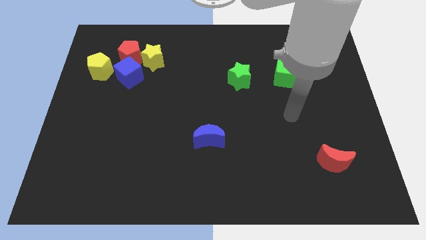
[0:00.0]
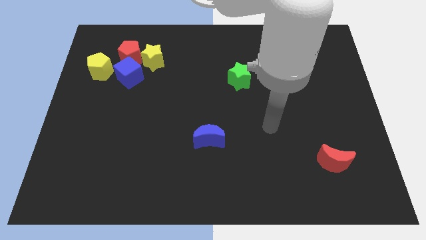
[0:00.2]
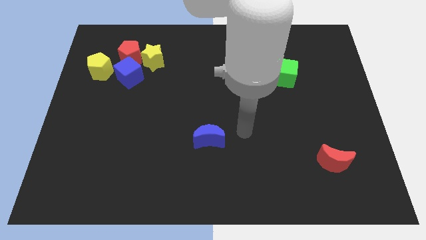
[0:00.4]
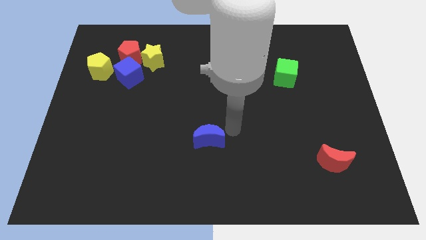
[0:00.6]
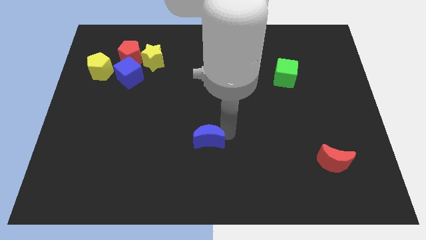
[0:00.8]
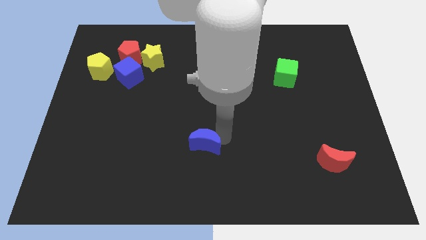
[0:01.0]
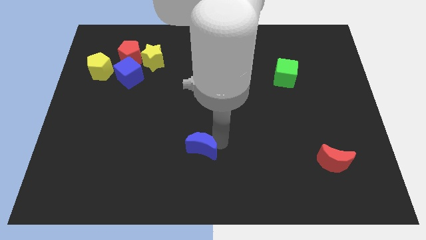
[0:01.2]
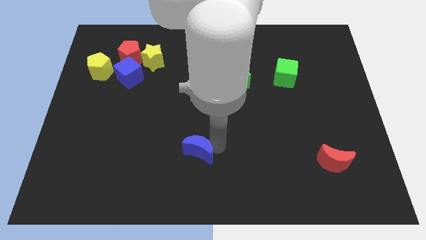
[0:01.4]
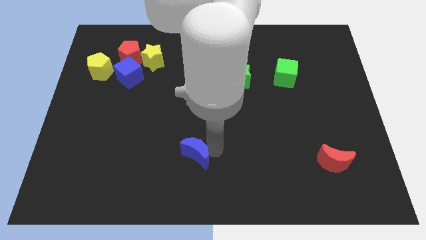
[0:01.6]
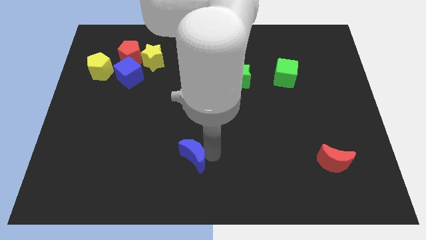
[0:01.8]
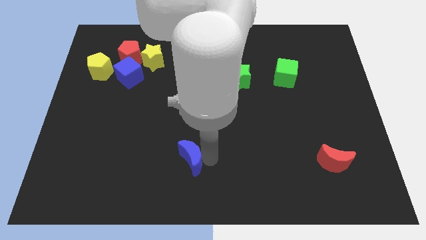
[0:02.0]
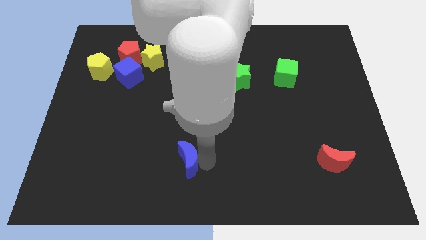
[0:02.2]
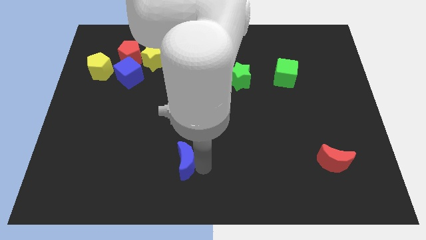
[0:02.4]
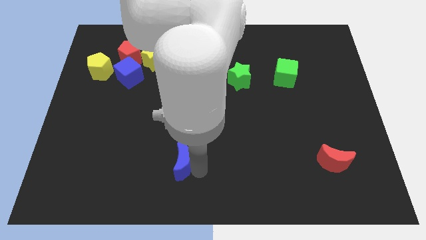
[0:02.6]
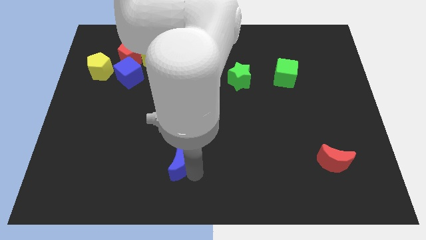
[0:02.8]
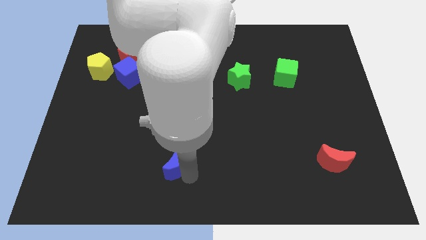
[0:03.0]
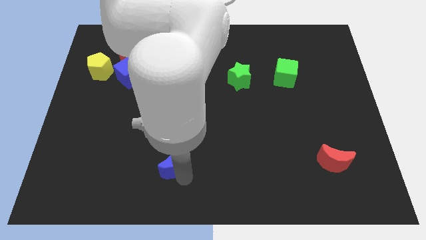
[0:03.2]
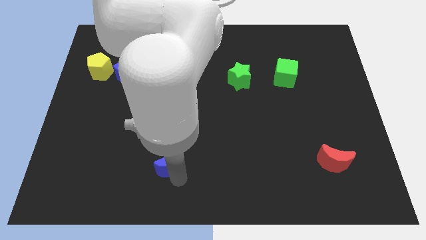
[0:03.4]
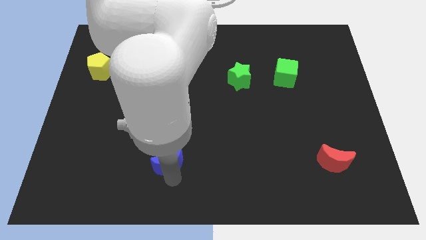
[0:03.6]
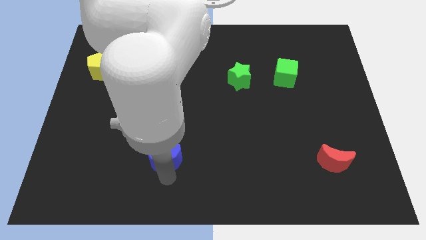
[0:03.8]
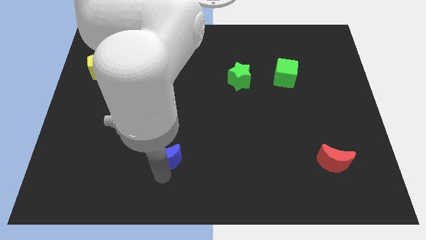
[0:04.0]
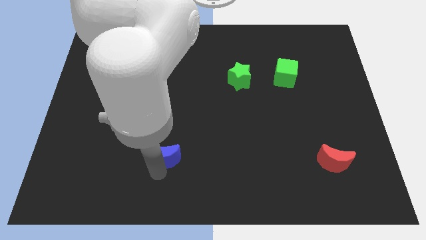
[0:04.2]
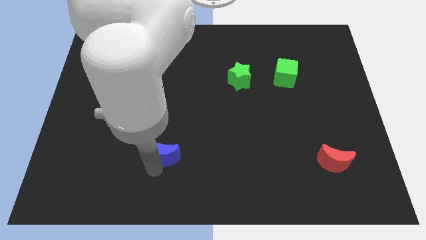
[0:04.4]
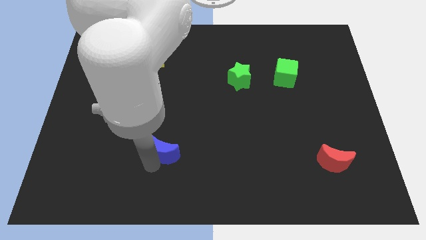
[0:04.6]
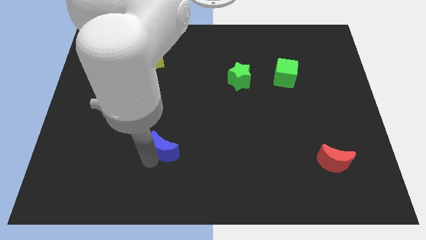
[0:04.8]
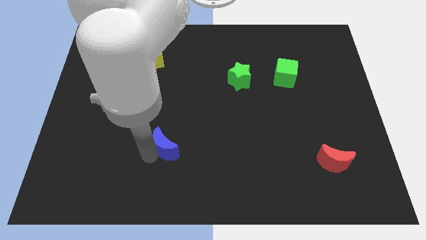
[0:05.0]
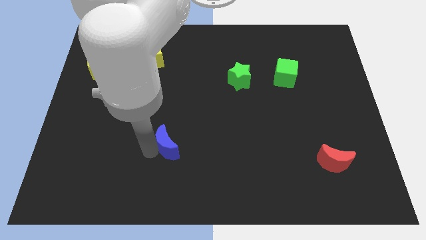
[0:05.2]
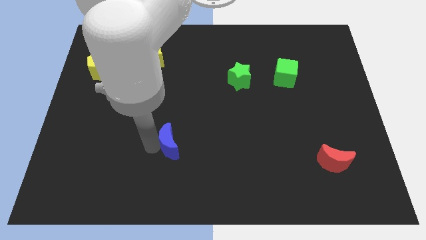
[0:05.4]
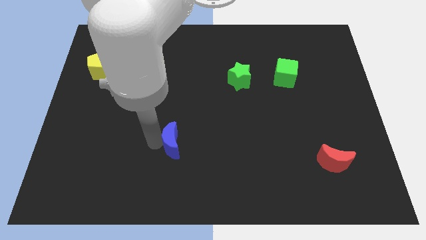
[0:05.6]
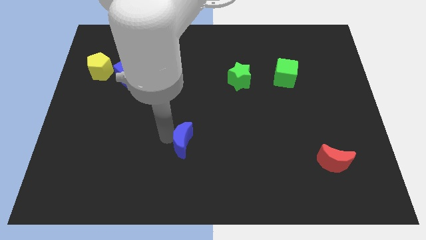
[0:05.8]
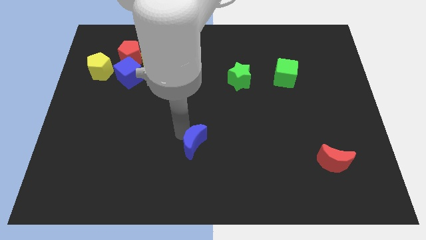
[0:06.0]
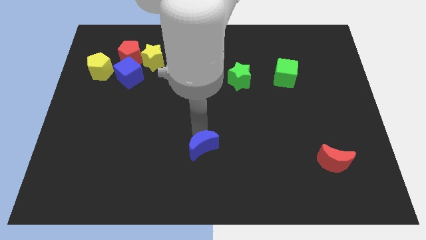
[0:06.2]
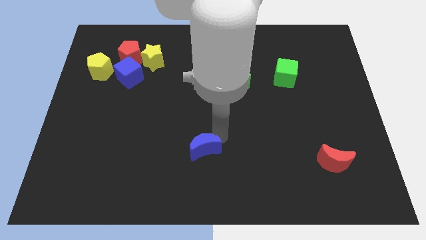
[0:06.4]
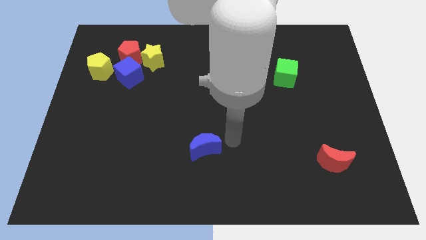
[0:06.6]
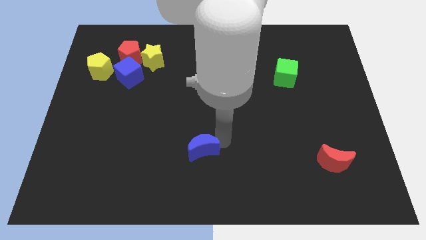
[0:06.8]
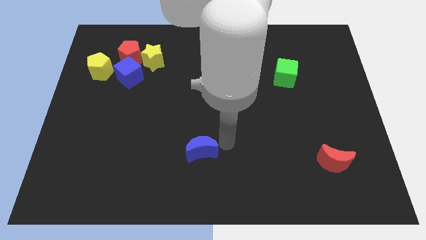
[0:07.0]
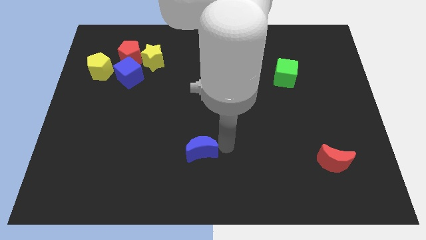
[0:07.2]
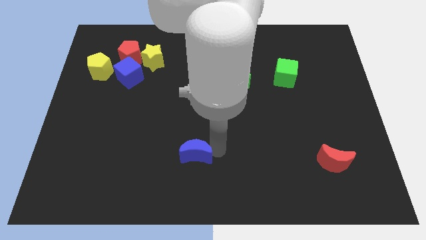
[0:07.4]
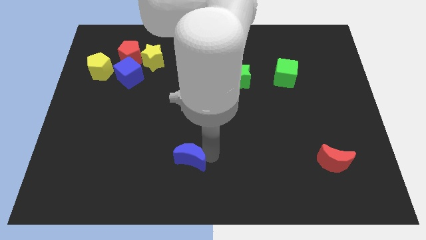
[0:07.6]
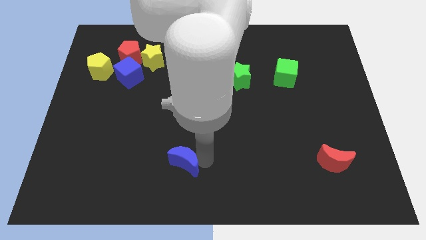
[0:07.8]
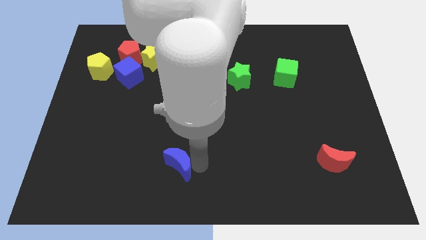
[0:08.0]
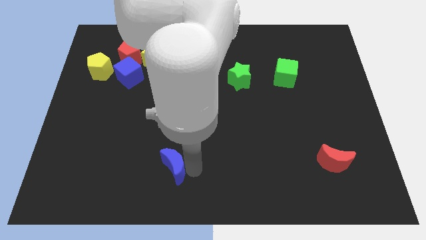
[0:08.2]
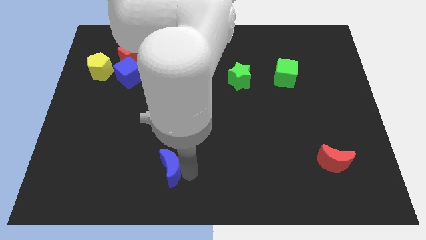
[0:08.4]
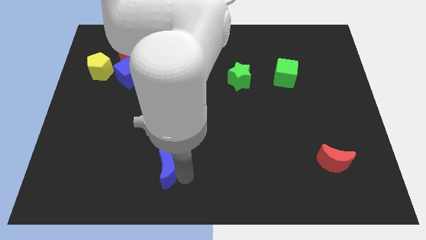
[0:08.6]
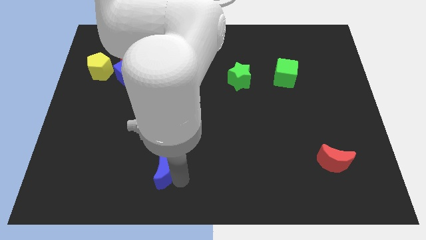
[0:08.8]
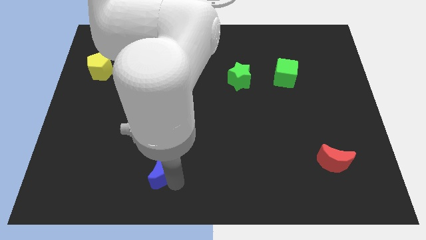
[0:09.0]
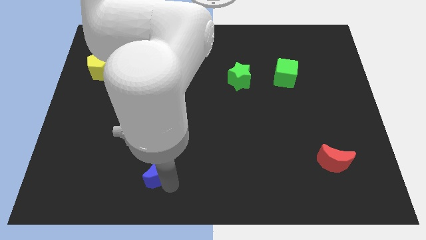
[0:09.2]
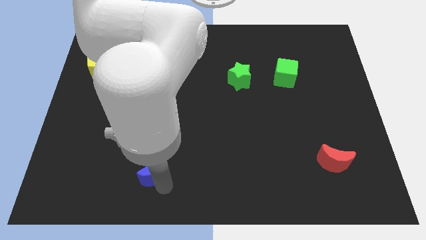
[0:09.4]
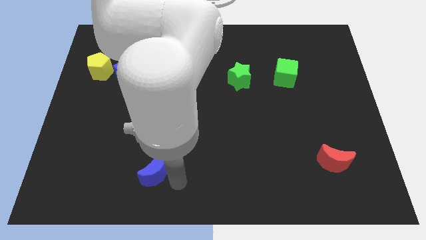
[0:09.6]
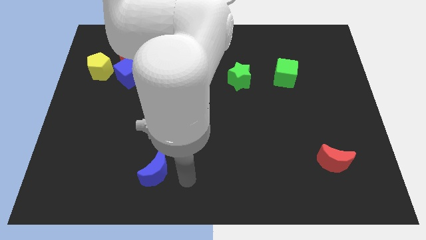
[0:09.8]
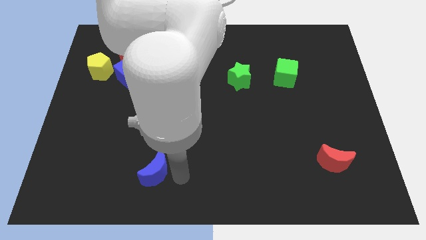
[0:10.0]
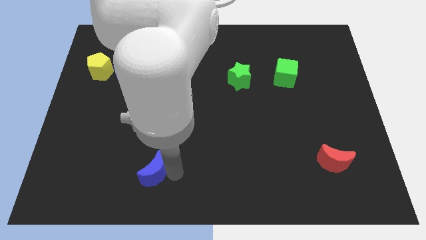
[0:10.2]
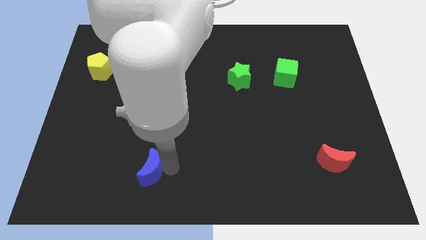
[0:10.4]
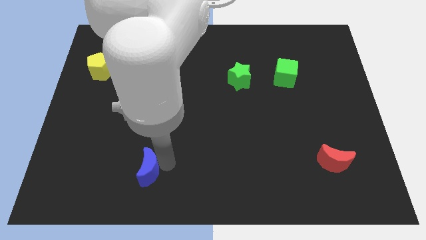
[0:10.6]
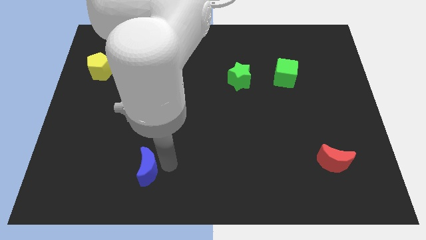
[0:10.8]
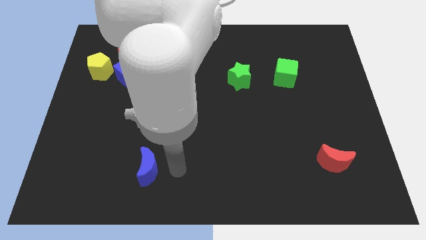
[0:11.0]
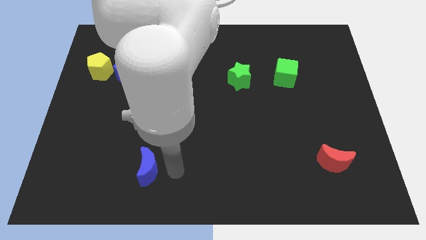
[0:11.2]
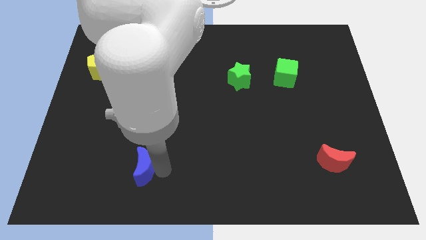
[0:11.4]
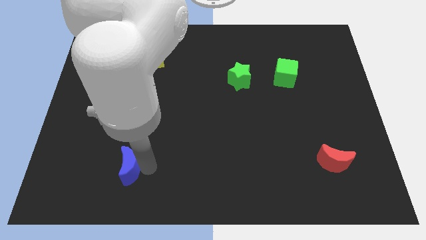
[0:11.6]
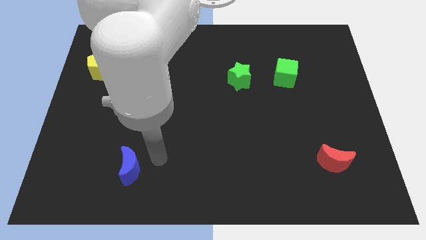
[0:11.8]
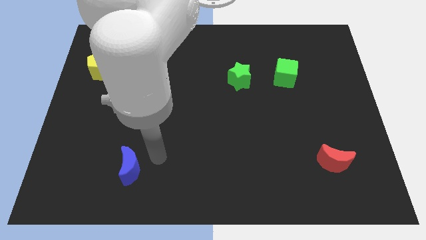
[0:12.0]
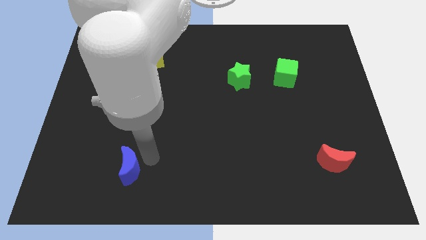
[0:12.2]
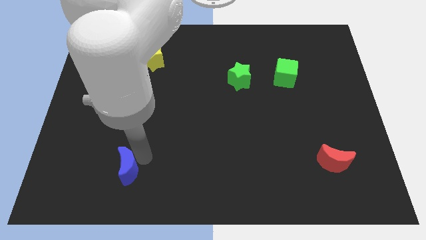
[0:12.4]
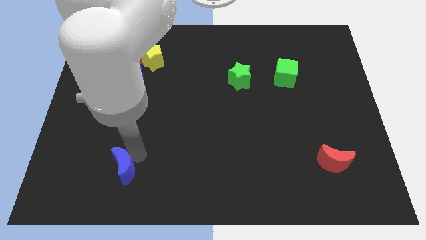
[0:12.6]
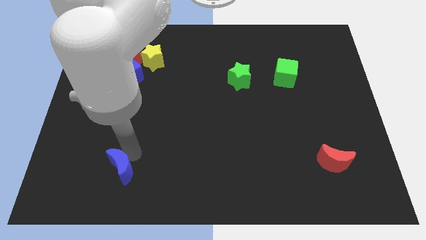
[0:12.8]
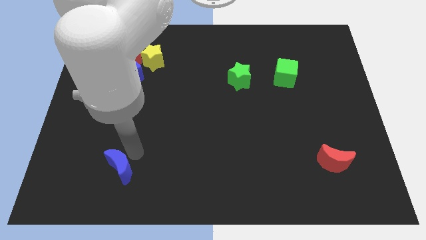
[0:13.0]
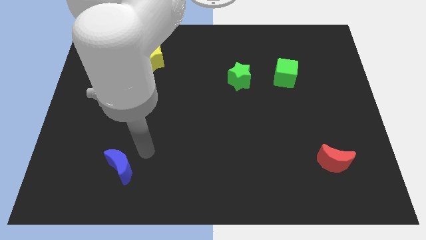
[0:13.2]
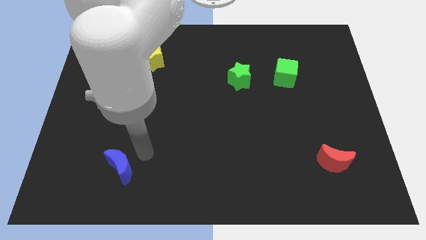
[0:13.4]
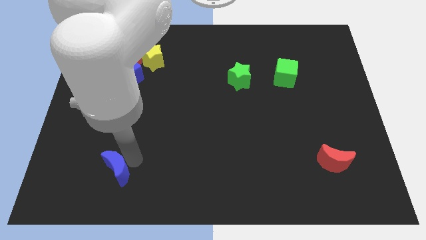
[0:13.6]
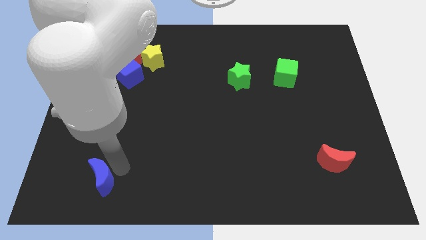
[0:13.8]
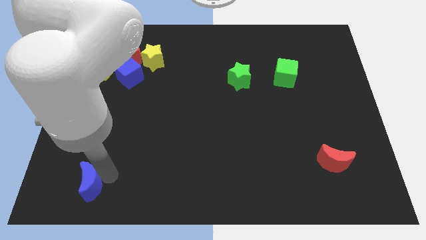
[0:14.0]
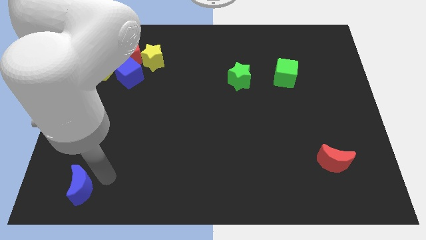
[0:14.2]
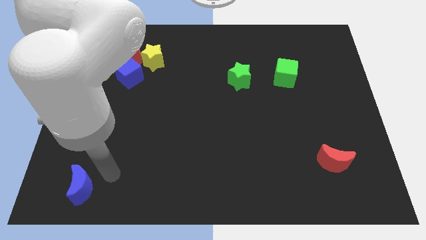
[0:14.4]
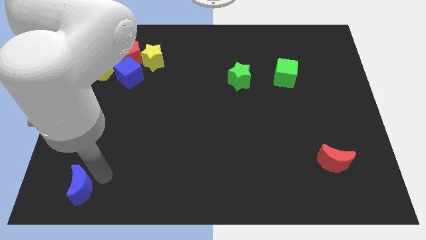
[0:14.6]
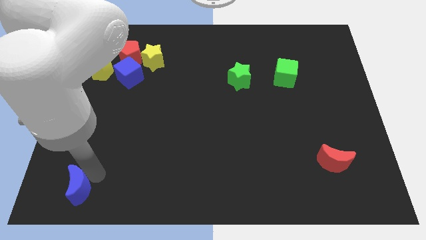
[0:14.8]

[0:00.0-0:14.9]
slide the blue moon to the bottom left corner

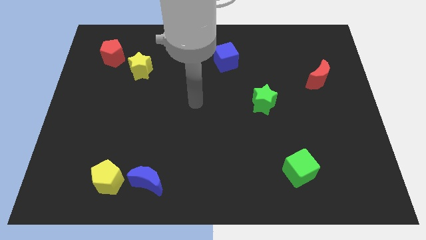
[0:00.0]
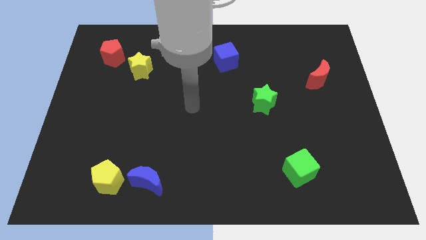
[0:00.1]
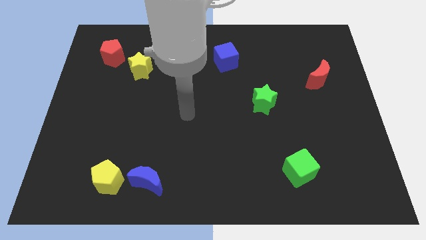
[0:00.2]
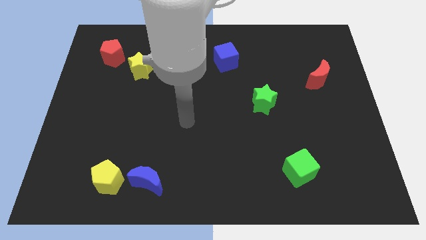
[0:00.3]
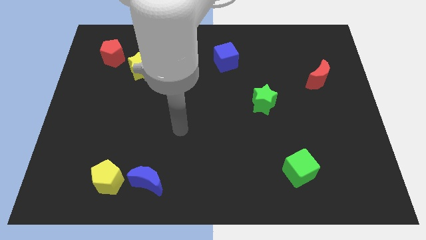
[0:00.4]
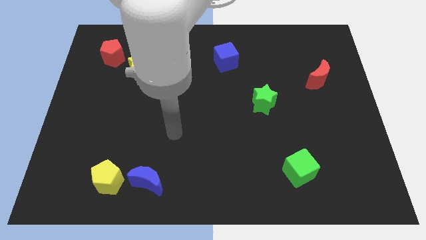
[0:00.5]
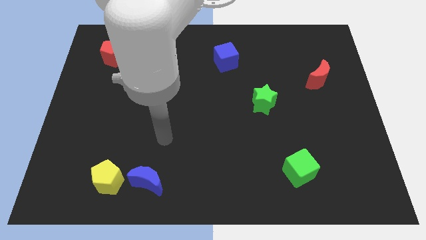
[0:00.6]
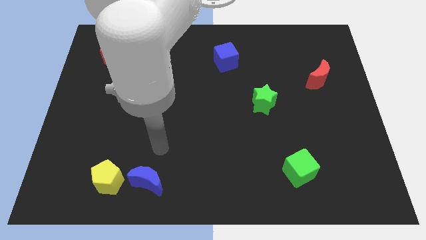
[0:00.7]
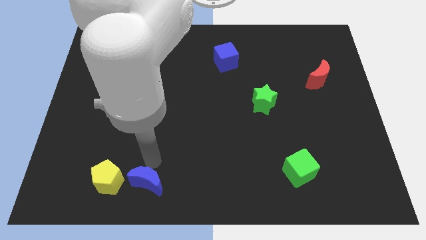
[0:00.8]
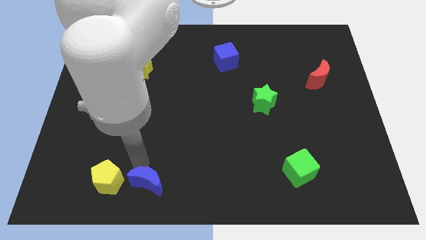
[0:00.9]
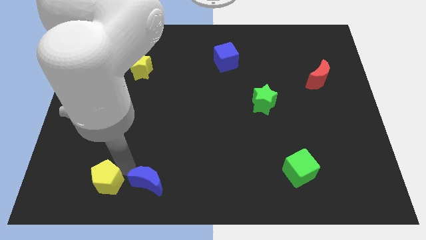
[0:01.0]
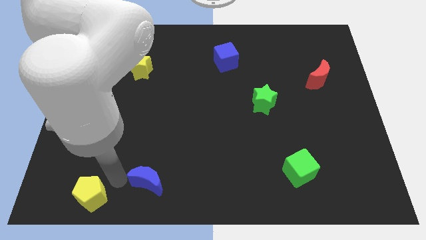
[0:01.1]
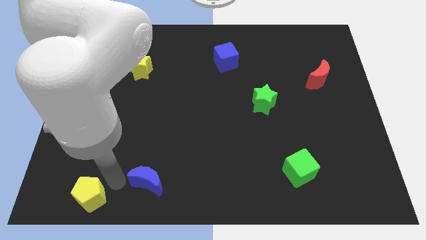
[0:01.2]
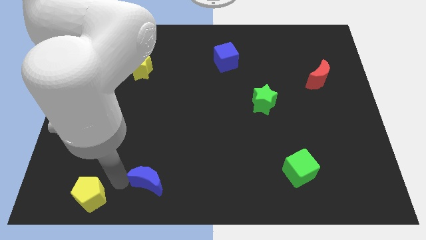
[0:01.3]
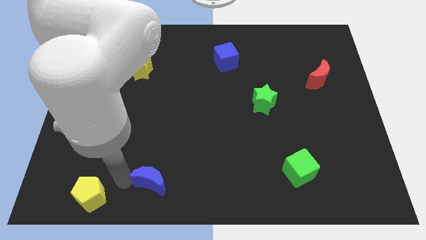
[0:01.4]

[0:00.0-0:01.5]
move the blue moon to the bottom
